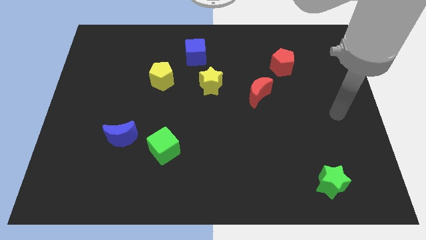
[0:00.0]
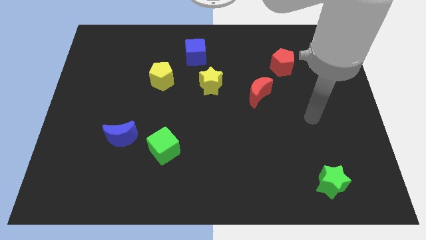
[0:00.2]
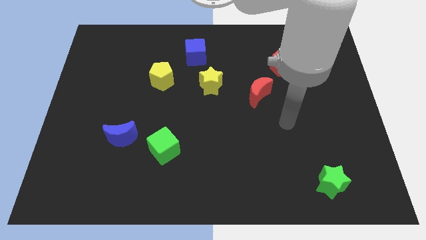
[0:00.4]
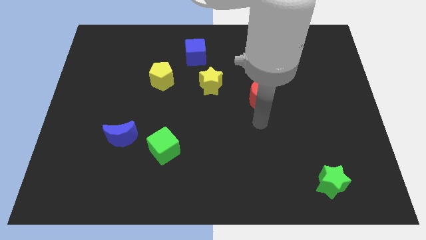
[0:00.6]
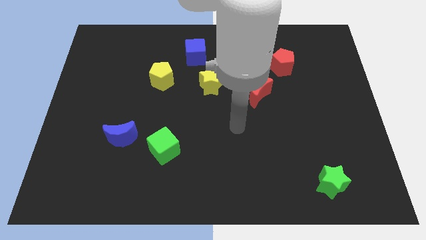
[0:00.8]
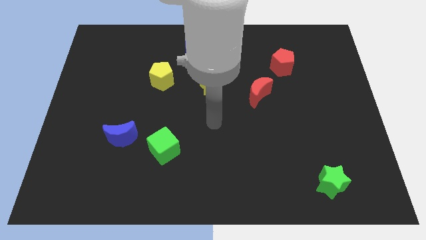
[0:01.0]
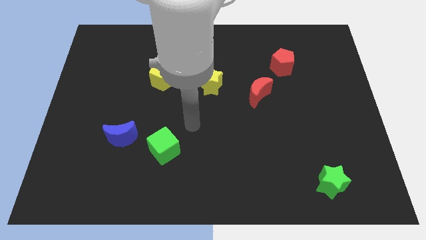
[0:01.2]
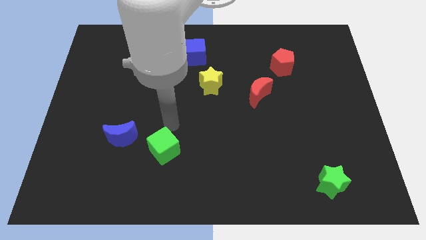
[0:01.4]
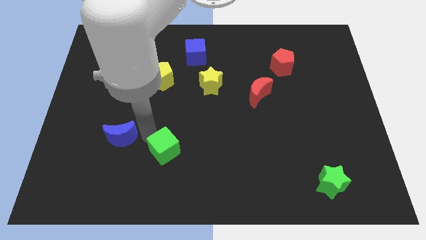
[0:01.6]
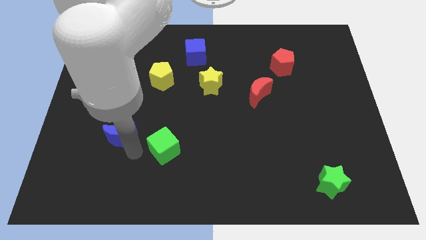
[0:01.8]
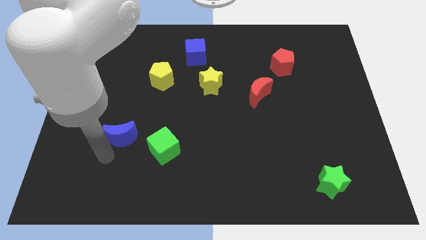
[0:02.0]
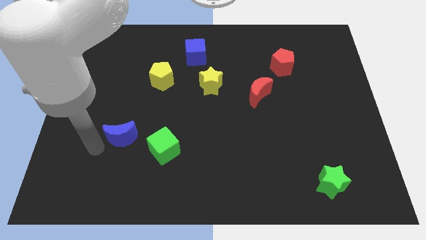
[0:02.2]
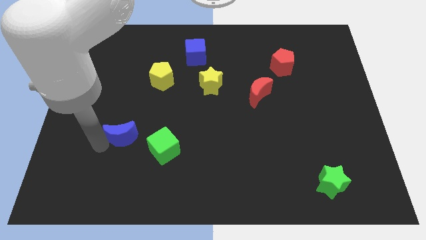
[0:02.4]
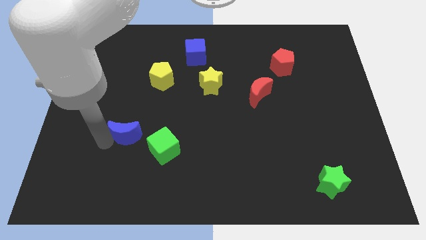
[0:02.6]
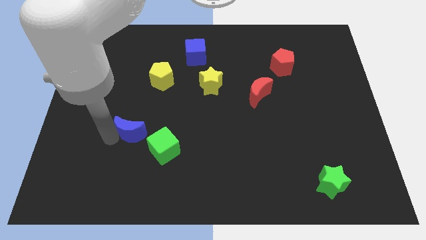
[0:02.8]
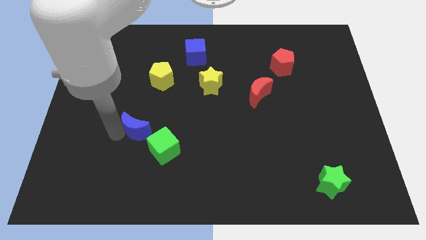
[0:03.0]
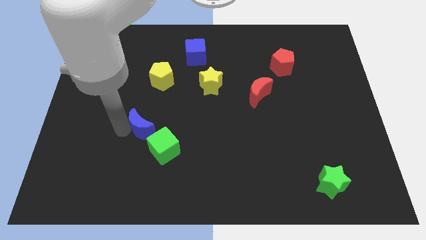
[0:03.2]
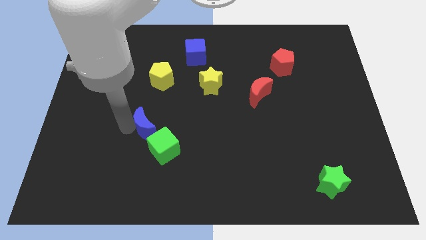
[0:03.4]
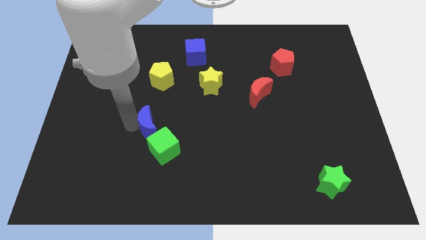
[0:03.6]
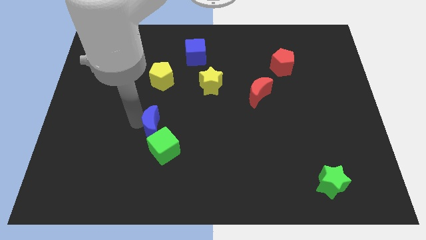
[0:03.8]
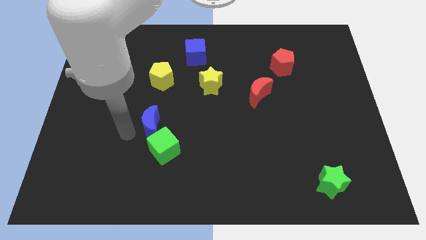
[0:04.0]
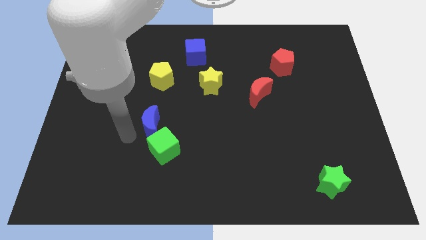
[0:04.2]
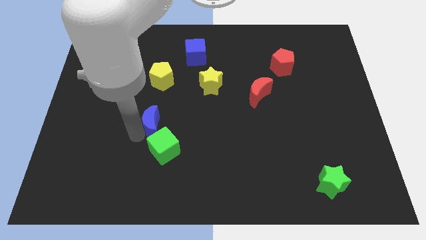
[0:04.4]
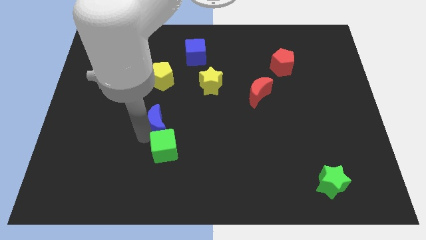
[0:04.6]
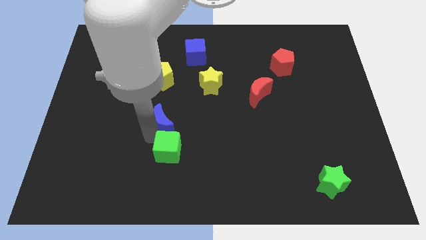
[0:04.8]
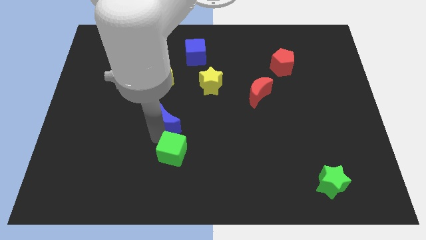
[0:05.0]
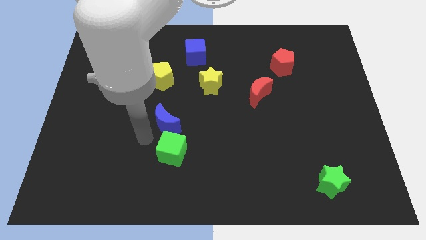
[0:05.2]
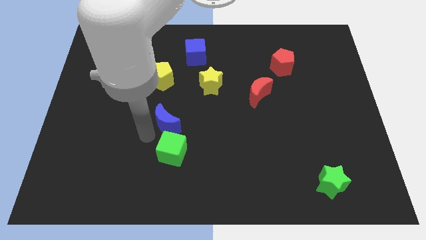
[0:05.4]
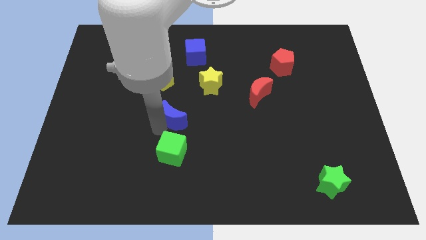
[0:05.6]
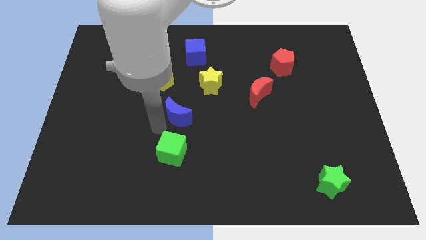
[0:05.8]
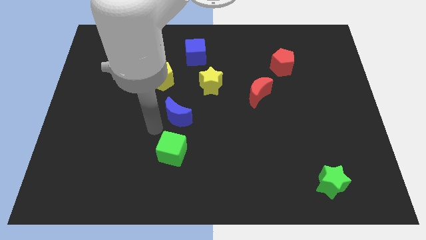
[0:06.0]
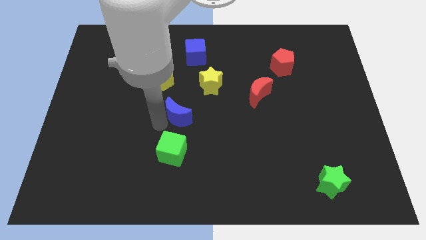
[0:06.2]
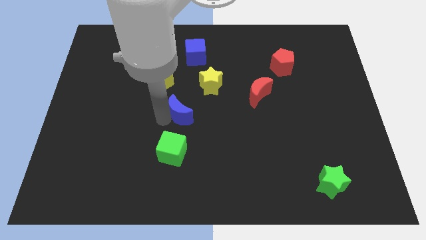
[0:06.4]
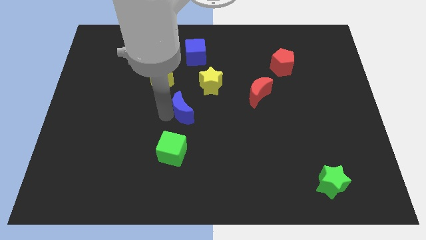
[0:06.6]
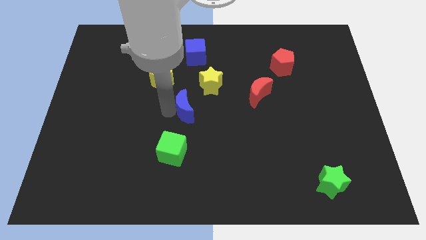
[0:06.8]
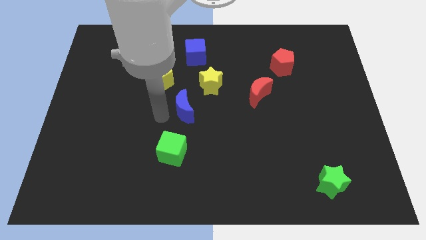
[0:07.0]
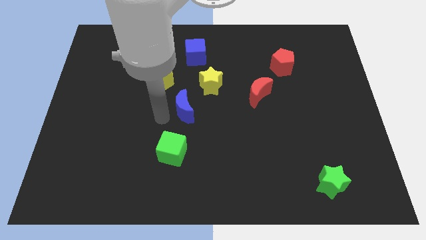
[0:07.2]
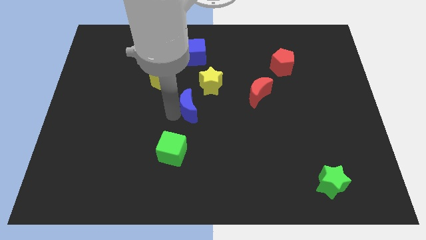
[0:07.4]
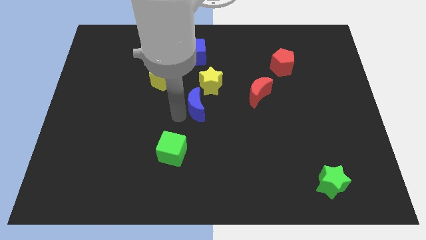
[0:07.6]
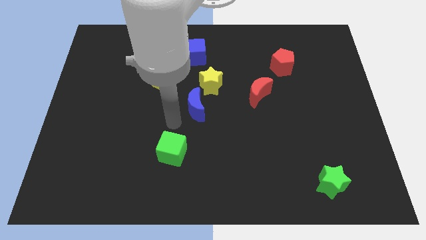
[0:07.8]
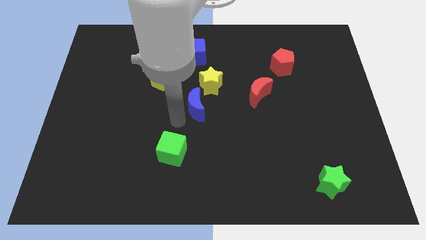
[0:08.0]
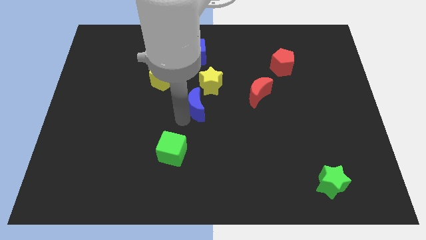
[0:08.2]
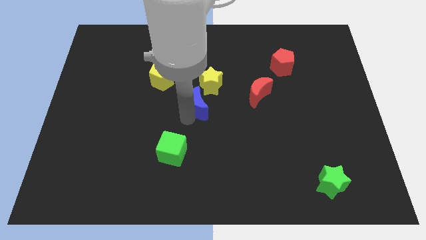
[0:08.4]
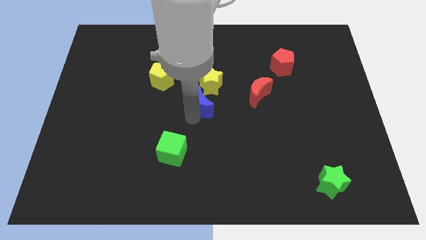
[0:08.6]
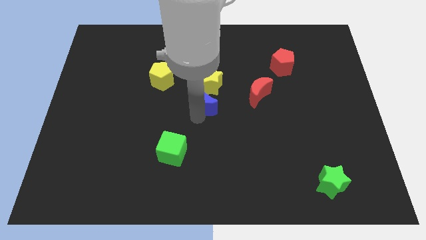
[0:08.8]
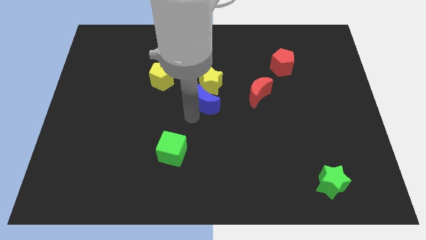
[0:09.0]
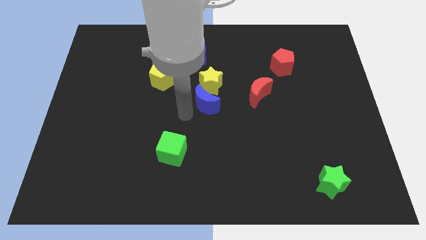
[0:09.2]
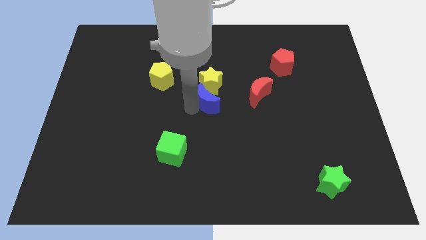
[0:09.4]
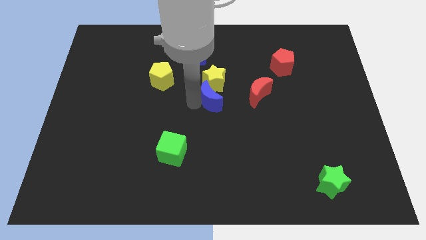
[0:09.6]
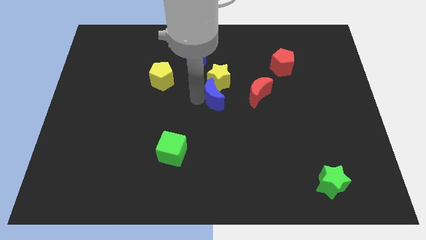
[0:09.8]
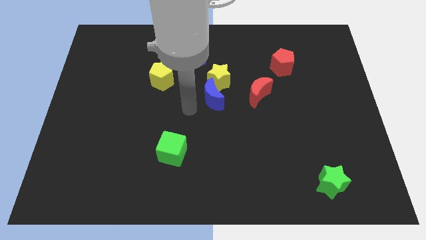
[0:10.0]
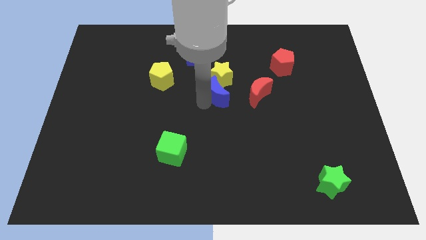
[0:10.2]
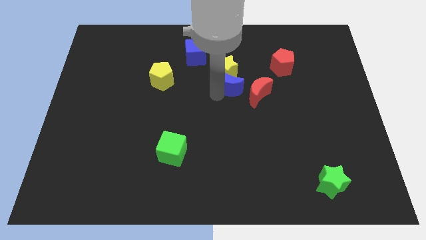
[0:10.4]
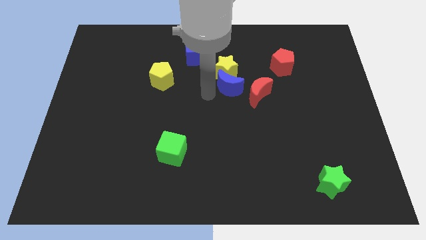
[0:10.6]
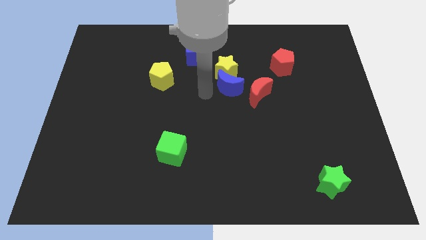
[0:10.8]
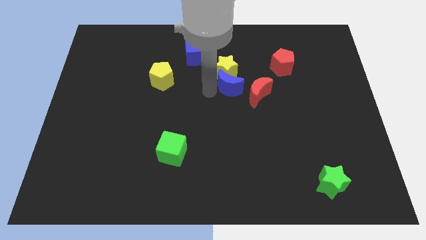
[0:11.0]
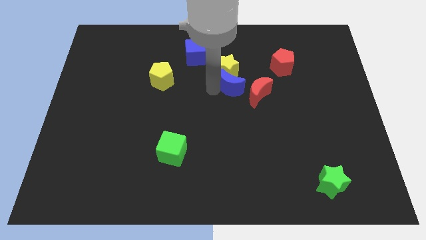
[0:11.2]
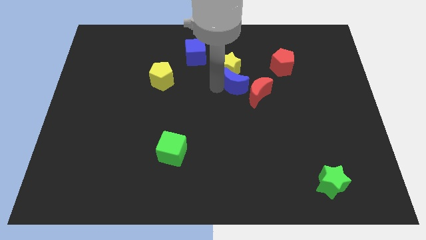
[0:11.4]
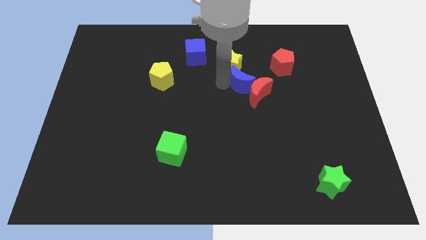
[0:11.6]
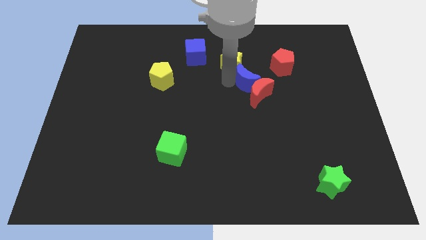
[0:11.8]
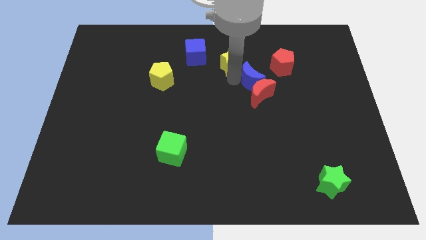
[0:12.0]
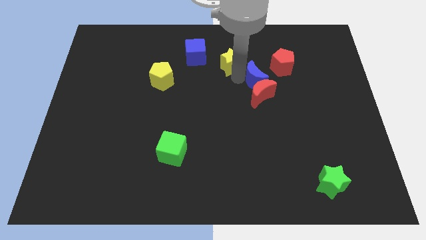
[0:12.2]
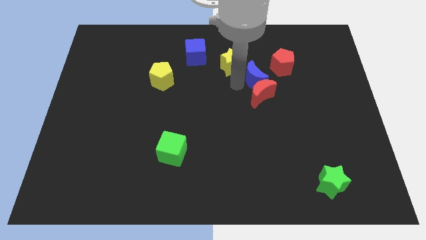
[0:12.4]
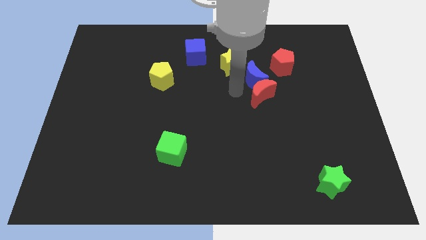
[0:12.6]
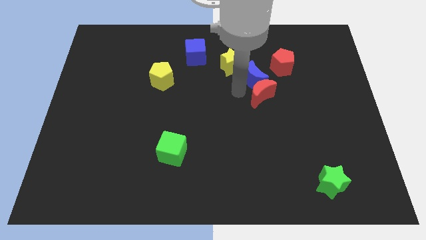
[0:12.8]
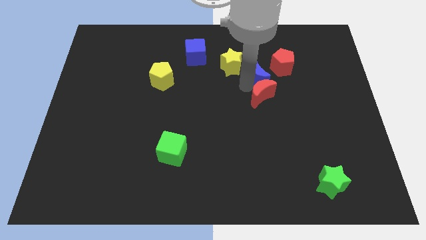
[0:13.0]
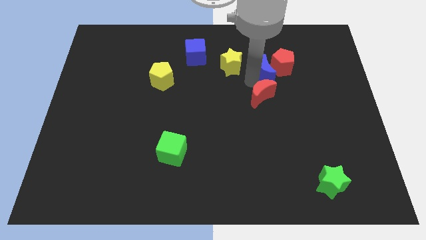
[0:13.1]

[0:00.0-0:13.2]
move the blue moon next to the red pentagon
